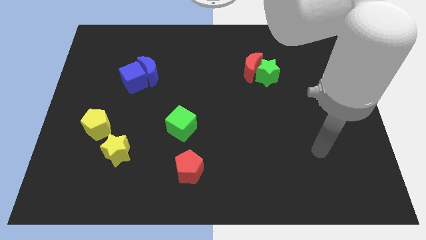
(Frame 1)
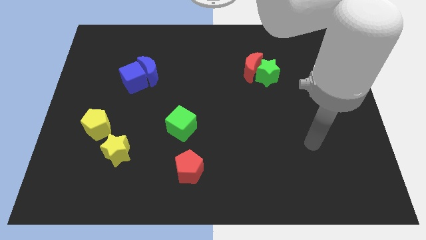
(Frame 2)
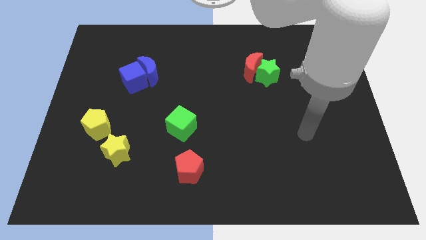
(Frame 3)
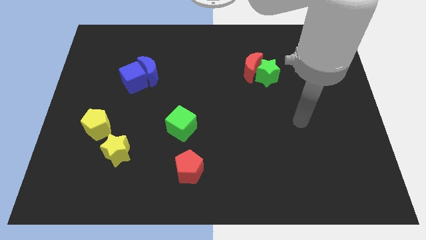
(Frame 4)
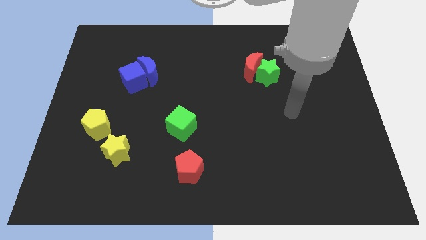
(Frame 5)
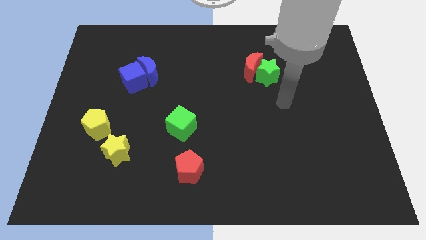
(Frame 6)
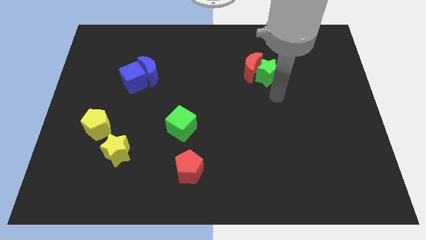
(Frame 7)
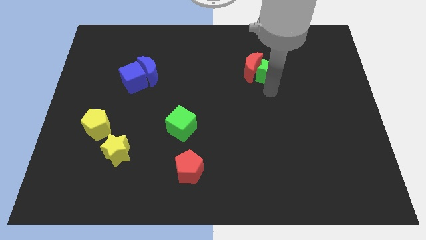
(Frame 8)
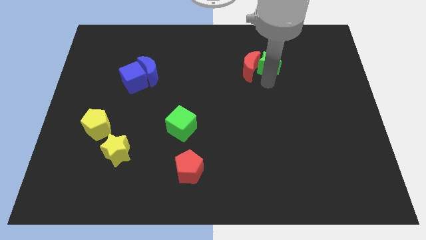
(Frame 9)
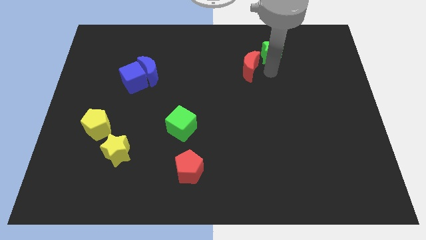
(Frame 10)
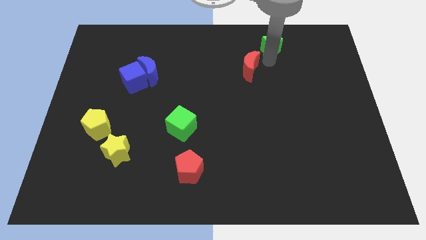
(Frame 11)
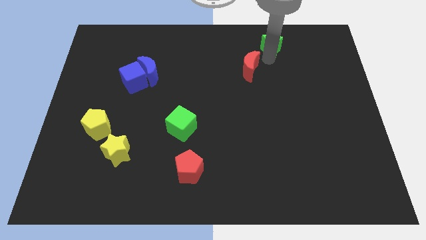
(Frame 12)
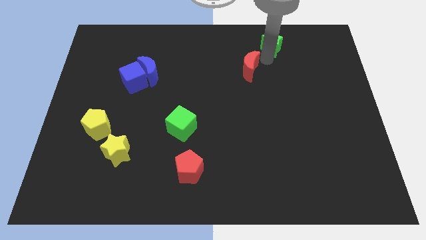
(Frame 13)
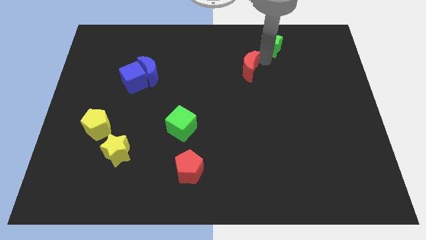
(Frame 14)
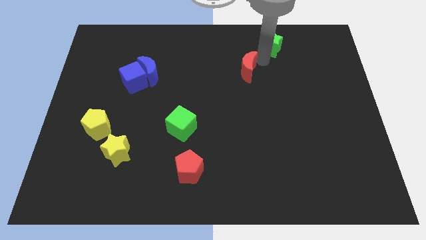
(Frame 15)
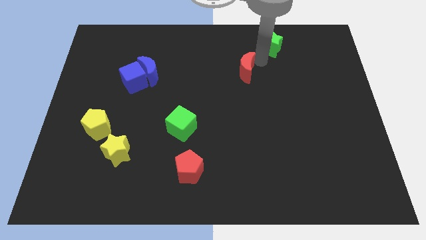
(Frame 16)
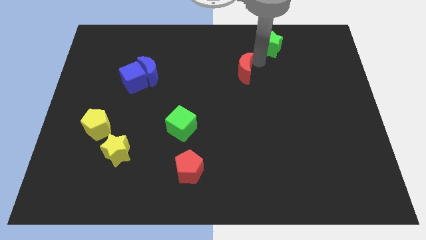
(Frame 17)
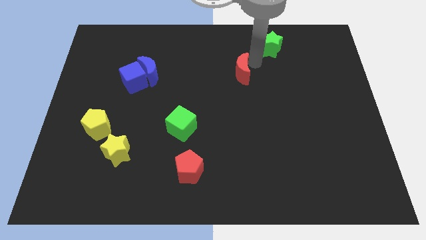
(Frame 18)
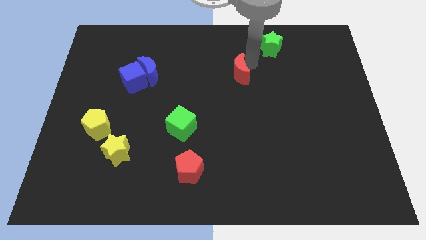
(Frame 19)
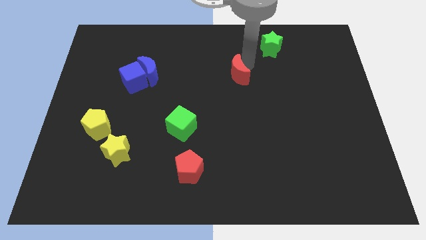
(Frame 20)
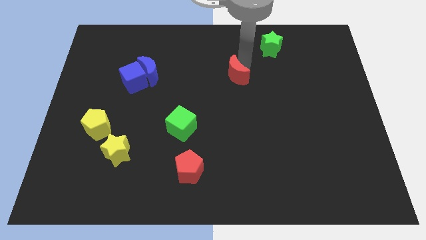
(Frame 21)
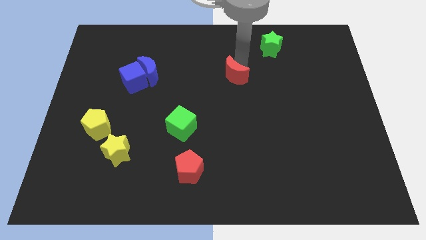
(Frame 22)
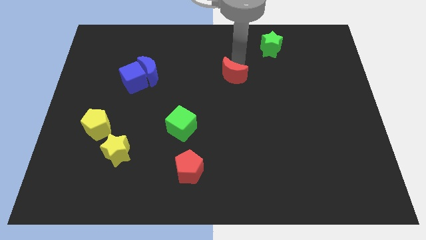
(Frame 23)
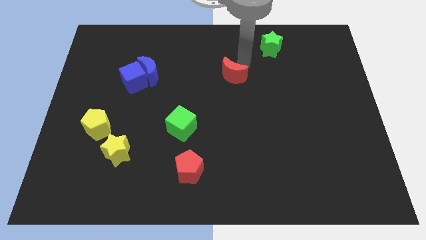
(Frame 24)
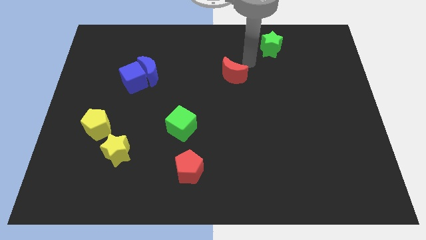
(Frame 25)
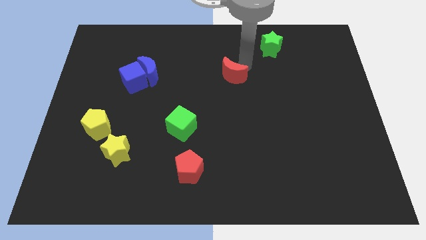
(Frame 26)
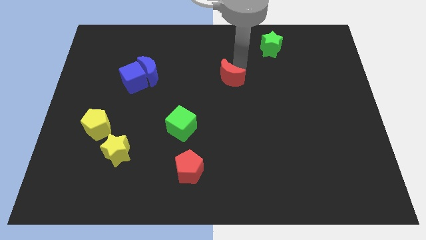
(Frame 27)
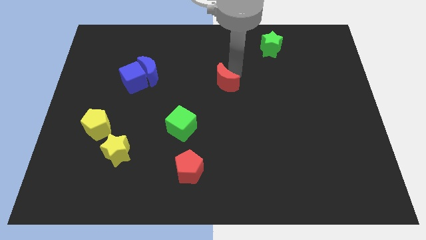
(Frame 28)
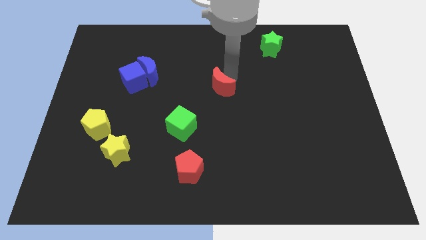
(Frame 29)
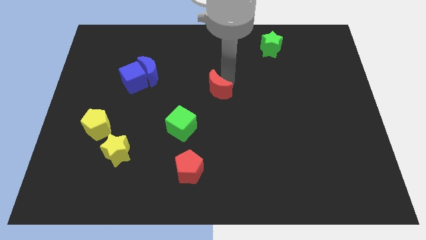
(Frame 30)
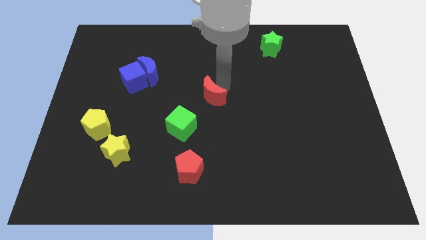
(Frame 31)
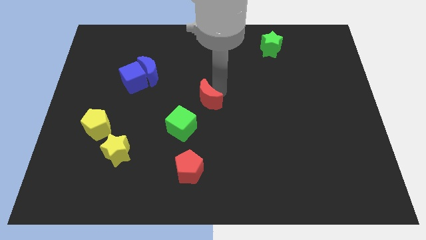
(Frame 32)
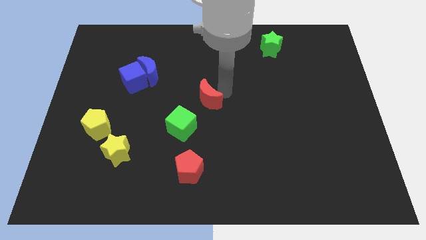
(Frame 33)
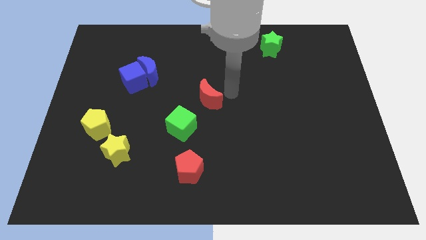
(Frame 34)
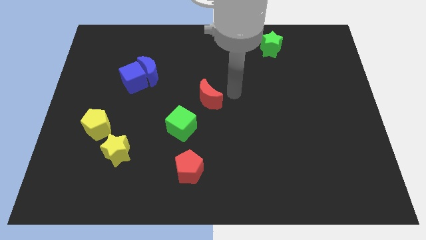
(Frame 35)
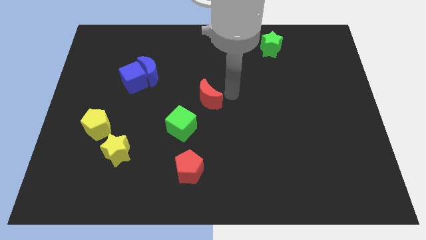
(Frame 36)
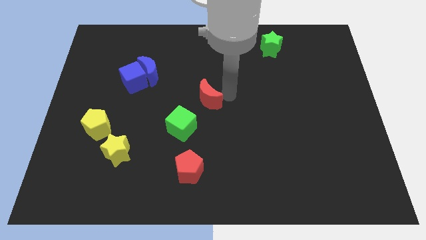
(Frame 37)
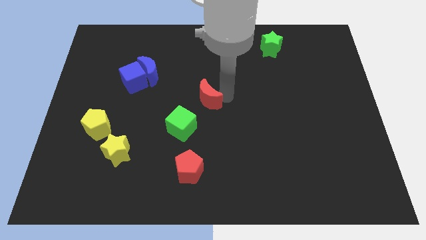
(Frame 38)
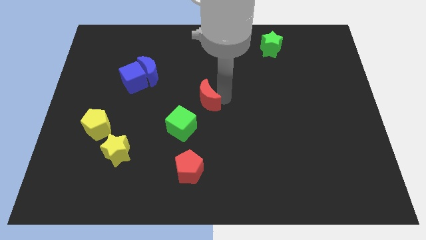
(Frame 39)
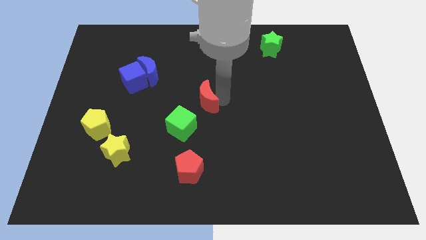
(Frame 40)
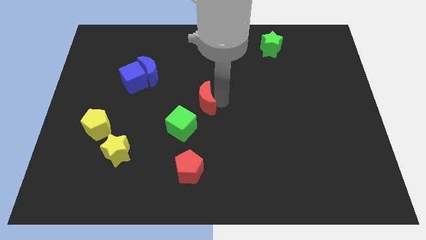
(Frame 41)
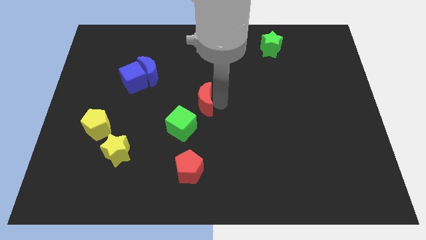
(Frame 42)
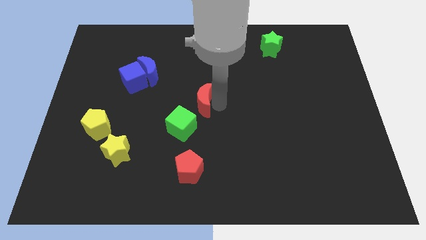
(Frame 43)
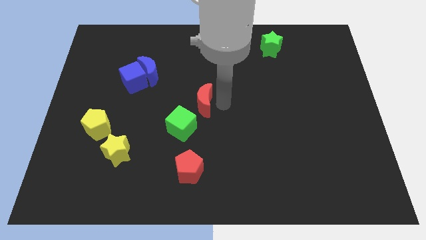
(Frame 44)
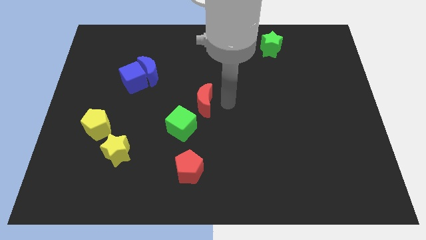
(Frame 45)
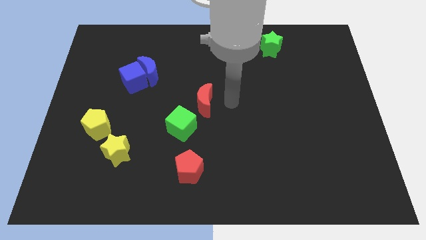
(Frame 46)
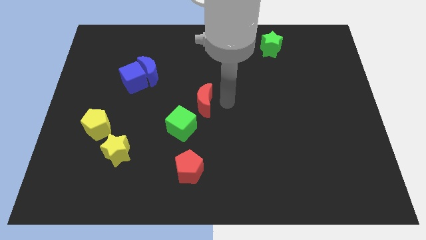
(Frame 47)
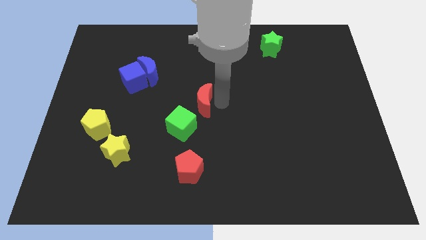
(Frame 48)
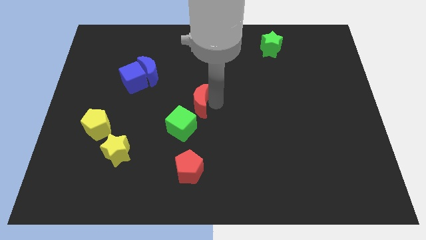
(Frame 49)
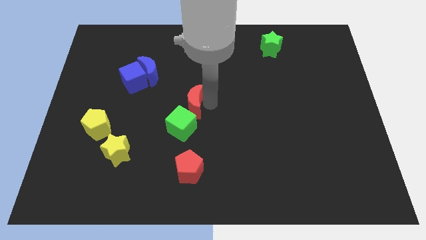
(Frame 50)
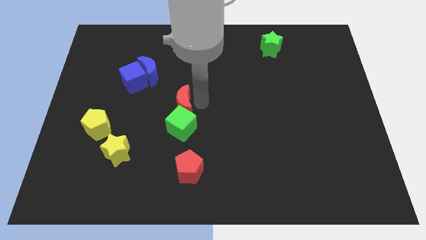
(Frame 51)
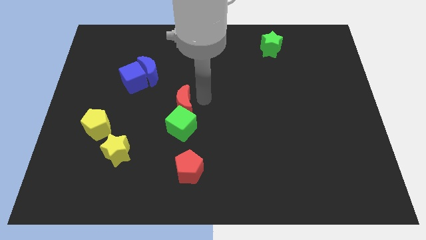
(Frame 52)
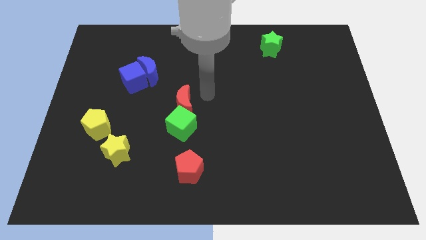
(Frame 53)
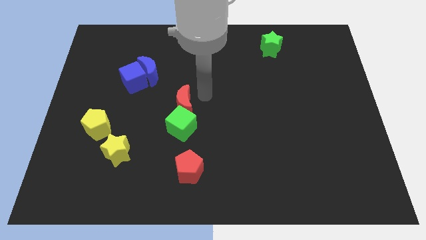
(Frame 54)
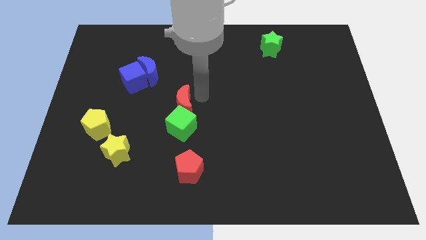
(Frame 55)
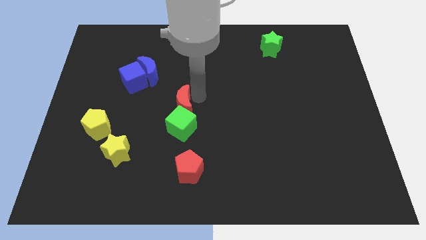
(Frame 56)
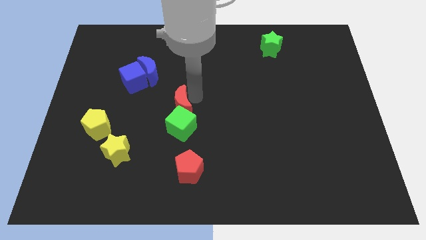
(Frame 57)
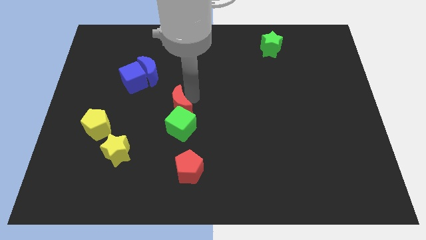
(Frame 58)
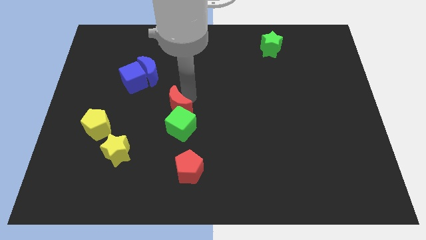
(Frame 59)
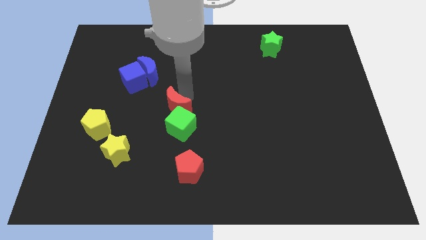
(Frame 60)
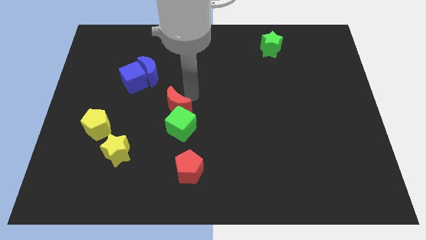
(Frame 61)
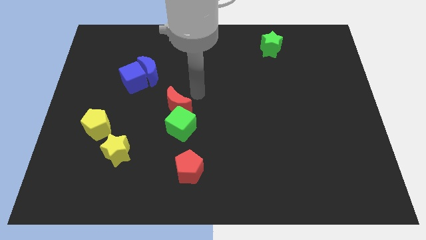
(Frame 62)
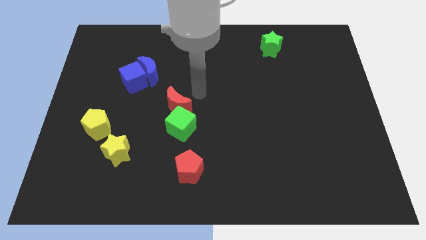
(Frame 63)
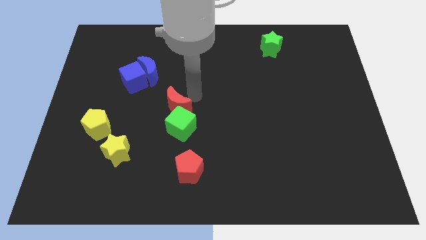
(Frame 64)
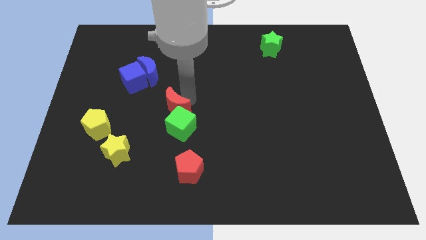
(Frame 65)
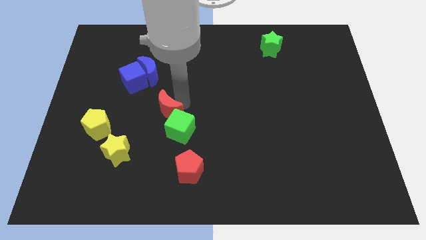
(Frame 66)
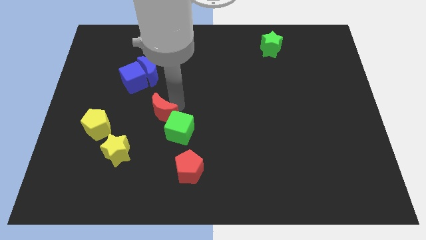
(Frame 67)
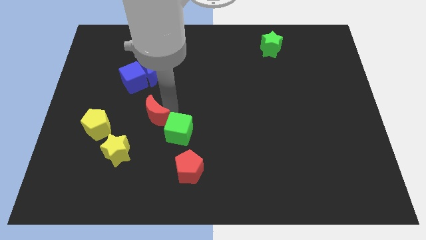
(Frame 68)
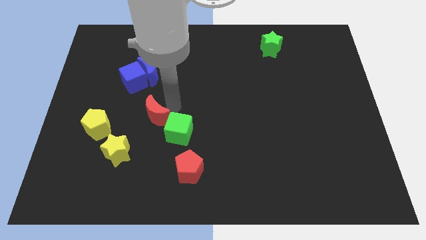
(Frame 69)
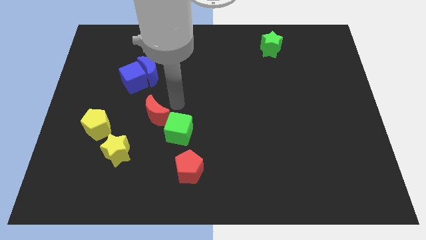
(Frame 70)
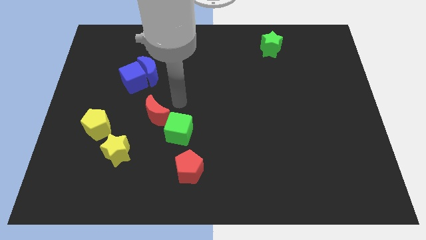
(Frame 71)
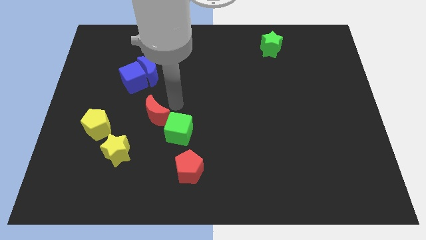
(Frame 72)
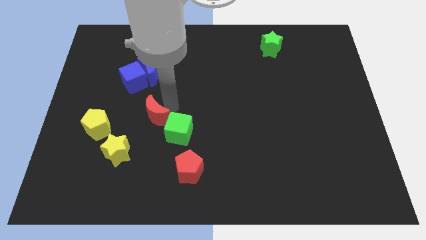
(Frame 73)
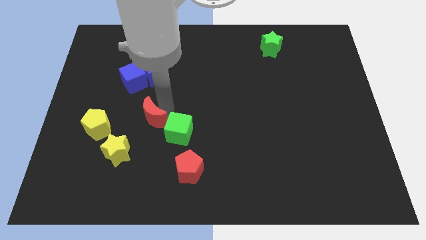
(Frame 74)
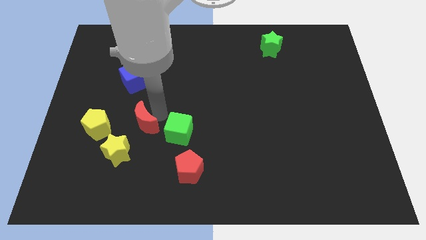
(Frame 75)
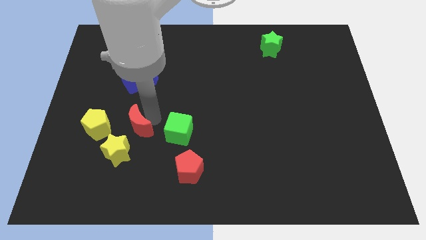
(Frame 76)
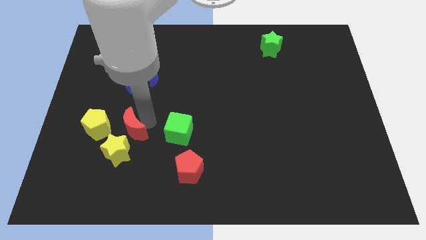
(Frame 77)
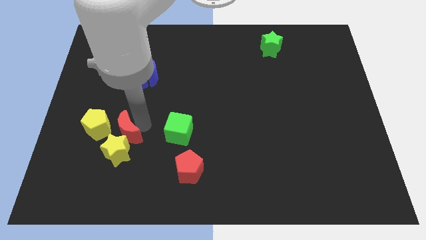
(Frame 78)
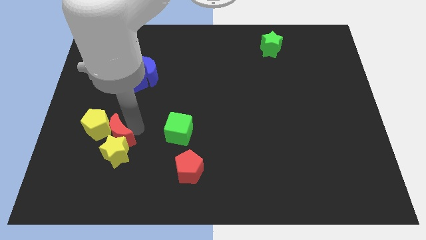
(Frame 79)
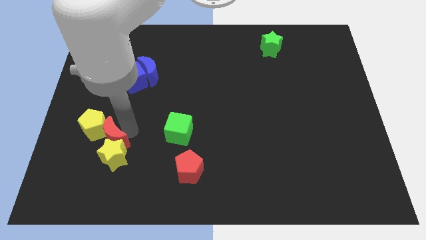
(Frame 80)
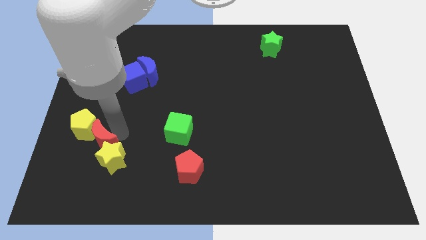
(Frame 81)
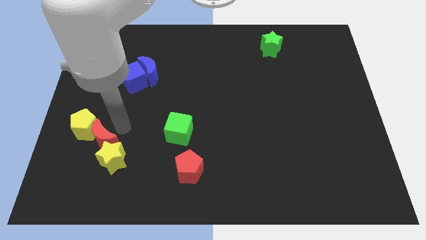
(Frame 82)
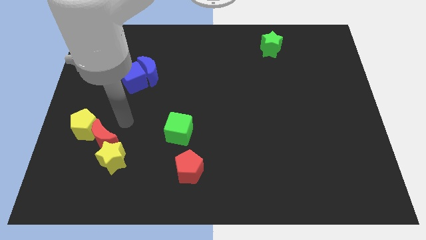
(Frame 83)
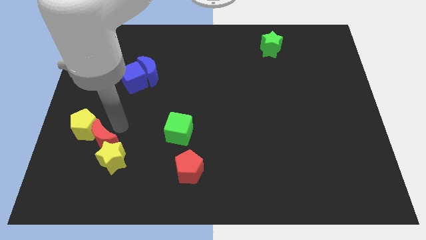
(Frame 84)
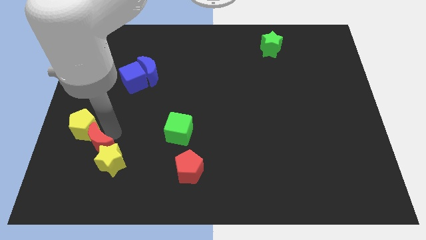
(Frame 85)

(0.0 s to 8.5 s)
put the red moon below the yellow pentagon
